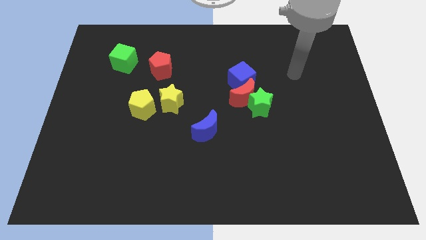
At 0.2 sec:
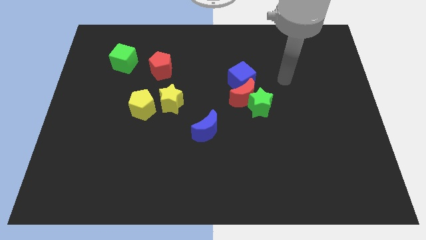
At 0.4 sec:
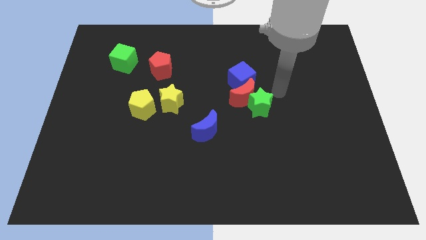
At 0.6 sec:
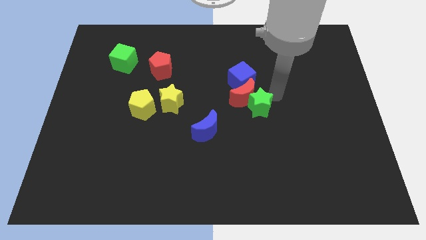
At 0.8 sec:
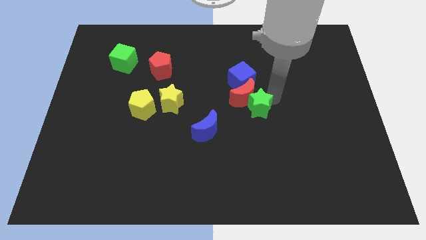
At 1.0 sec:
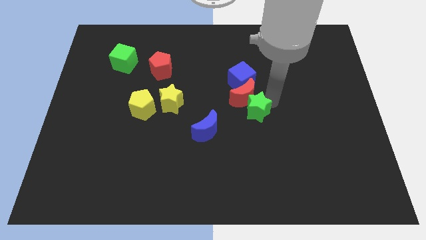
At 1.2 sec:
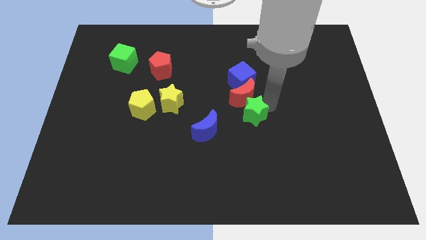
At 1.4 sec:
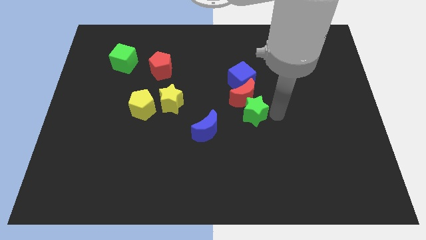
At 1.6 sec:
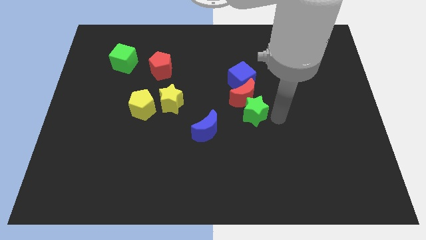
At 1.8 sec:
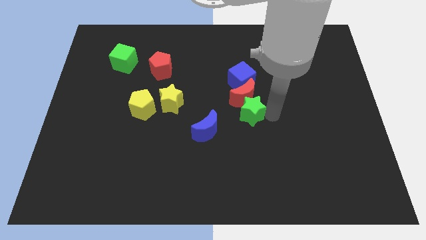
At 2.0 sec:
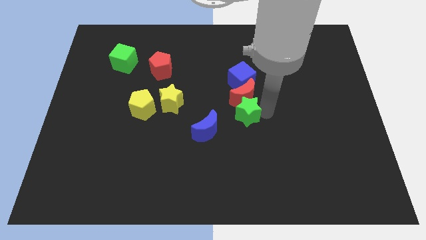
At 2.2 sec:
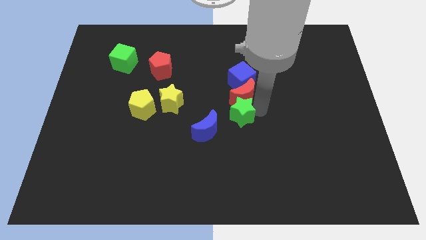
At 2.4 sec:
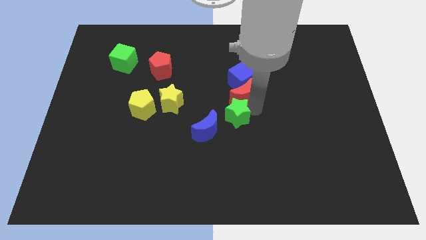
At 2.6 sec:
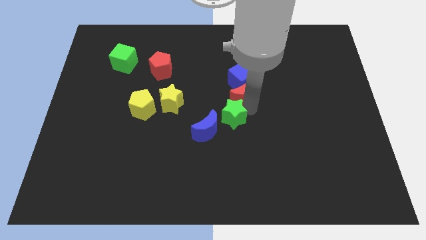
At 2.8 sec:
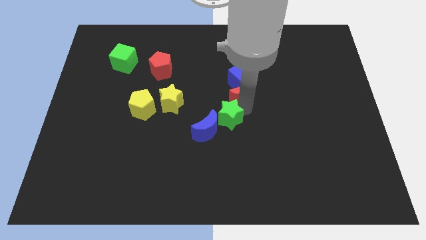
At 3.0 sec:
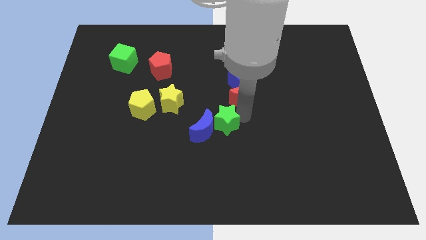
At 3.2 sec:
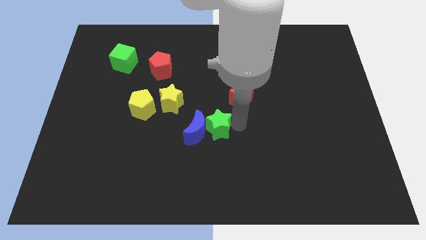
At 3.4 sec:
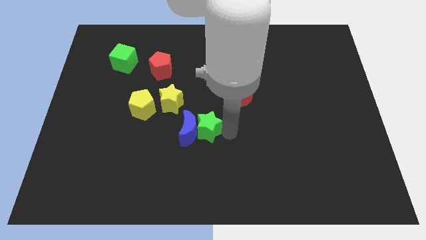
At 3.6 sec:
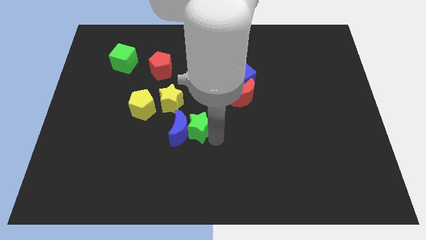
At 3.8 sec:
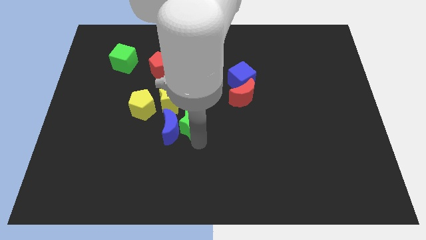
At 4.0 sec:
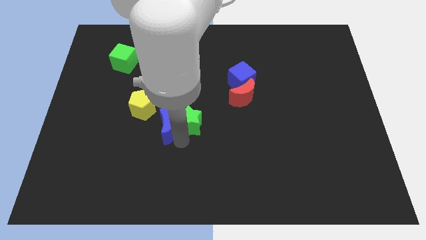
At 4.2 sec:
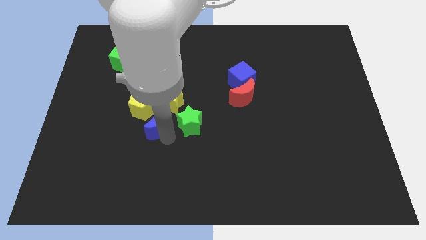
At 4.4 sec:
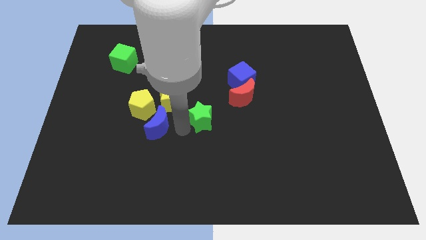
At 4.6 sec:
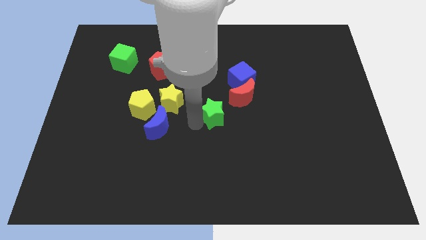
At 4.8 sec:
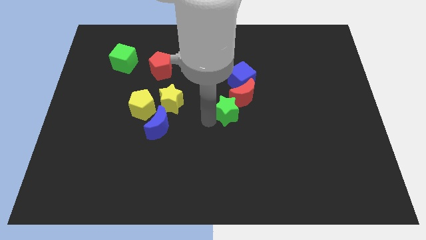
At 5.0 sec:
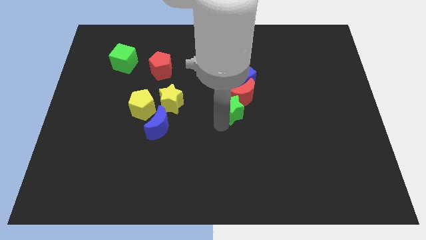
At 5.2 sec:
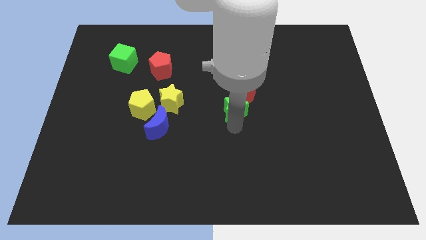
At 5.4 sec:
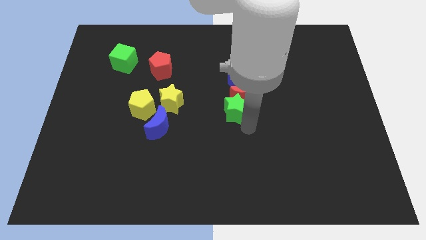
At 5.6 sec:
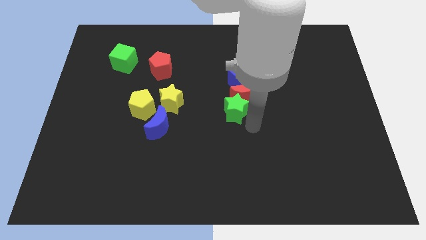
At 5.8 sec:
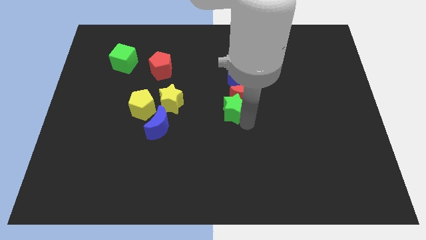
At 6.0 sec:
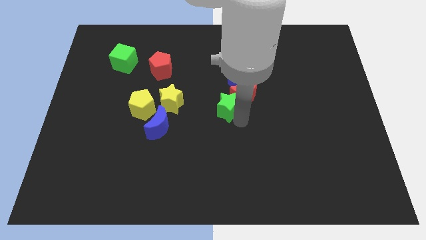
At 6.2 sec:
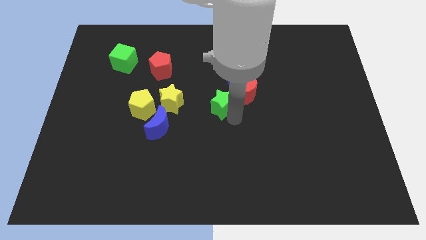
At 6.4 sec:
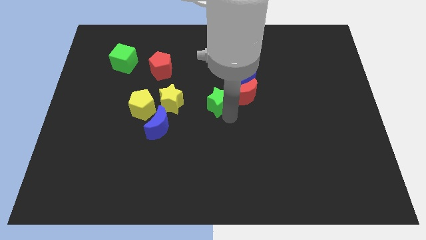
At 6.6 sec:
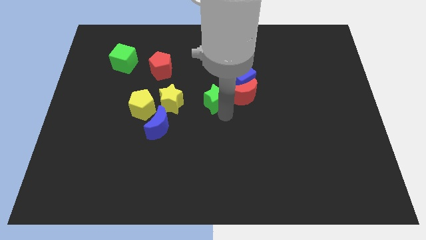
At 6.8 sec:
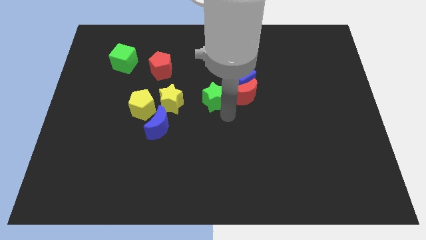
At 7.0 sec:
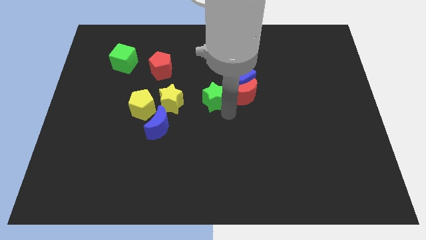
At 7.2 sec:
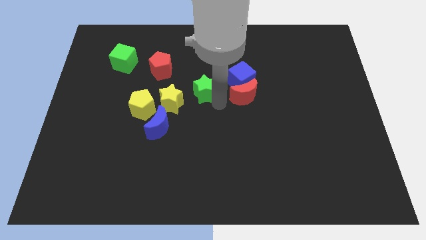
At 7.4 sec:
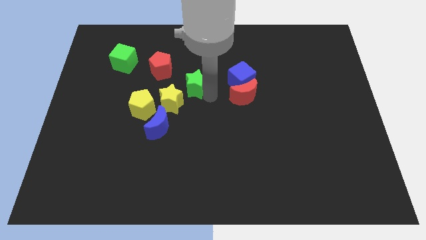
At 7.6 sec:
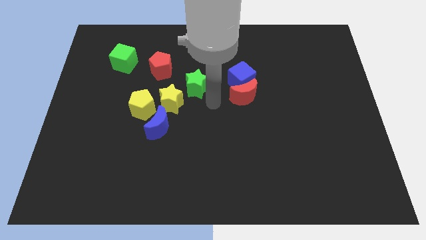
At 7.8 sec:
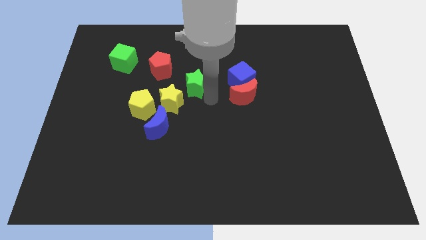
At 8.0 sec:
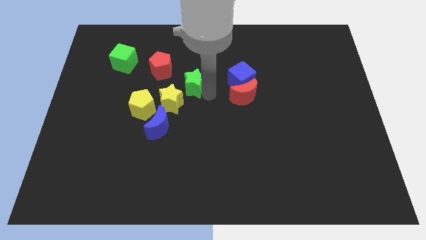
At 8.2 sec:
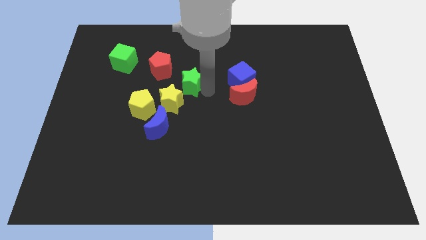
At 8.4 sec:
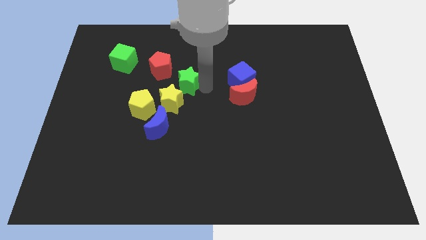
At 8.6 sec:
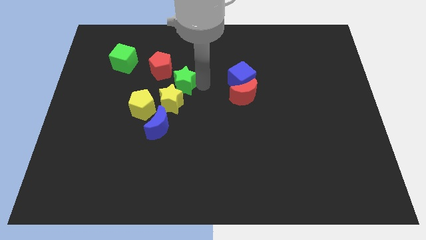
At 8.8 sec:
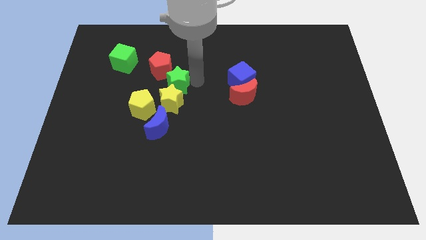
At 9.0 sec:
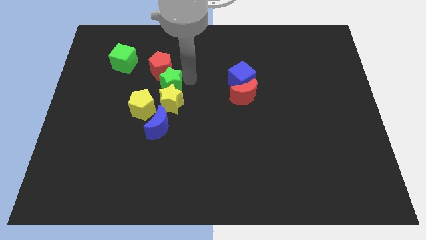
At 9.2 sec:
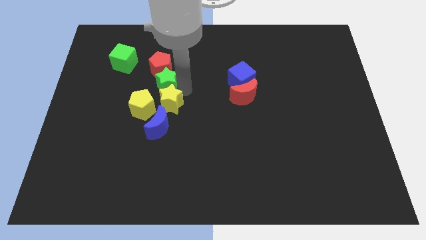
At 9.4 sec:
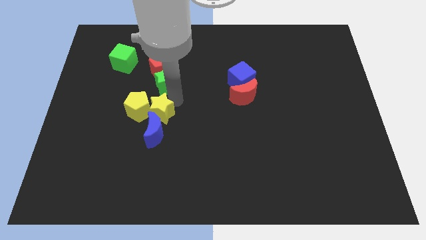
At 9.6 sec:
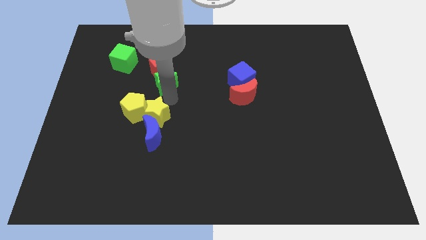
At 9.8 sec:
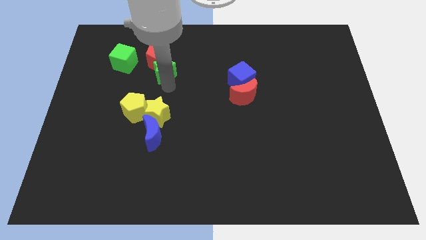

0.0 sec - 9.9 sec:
slide the green star right of the green cube

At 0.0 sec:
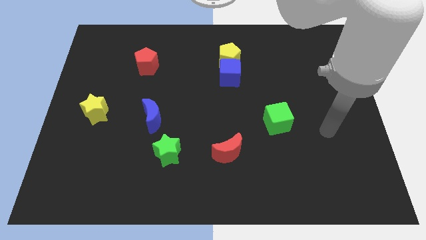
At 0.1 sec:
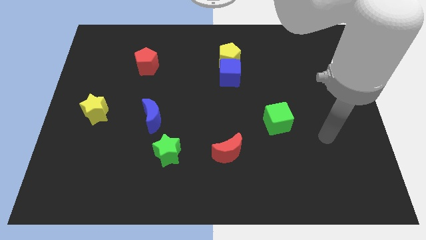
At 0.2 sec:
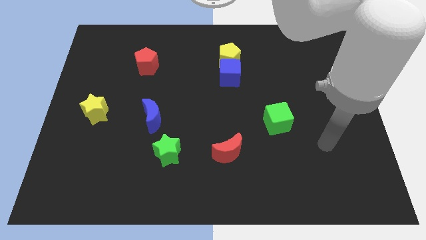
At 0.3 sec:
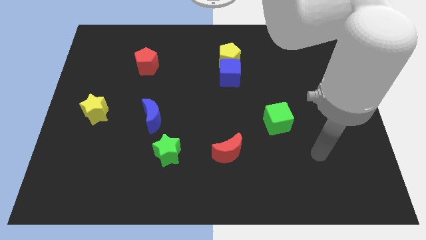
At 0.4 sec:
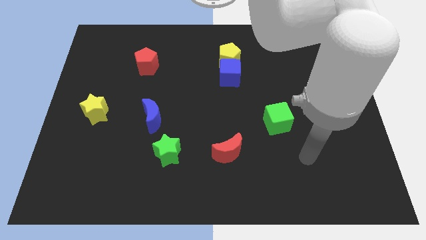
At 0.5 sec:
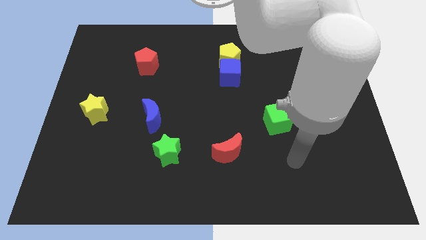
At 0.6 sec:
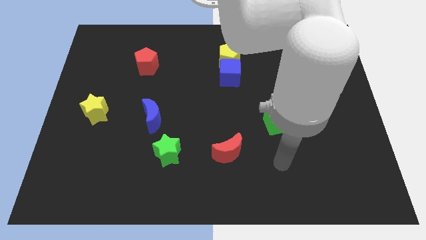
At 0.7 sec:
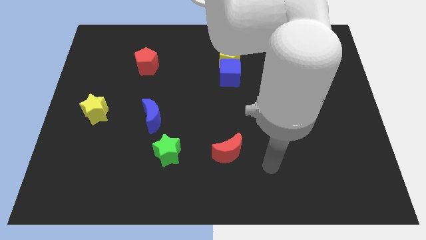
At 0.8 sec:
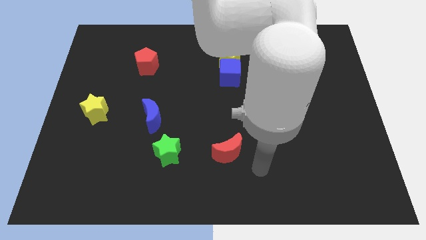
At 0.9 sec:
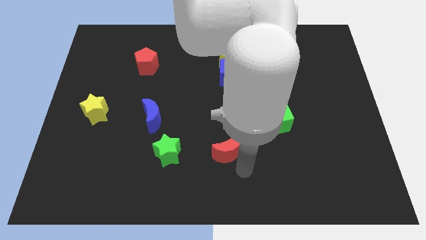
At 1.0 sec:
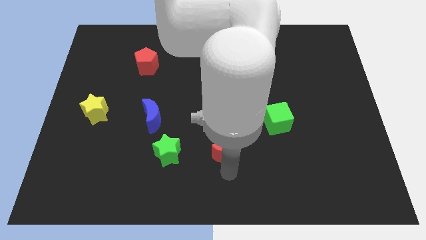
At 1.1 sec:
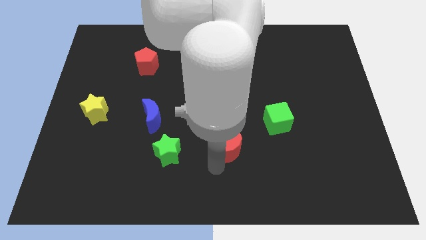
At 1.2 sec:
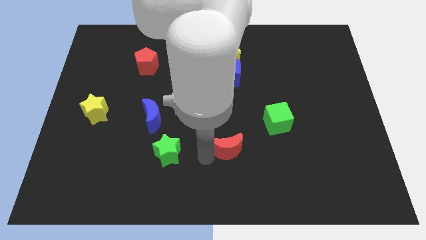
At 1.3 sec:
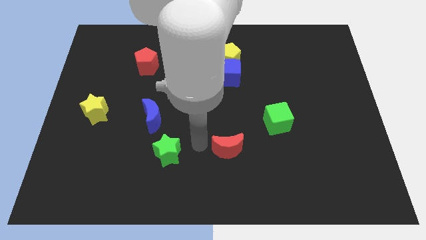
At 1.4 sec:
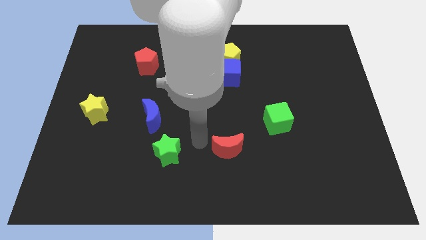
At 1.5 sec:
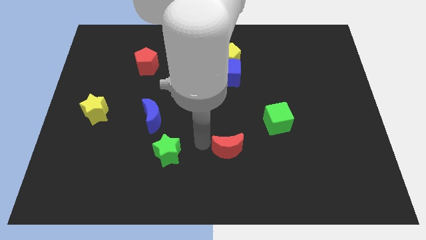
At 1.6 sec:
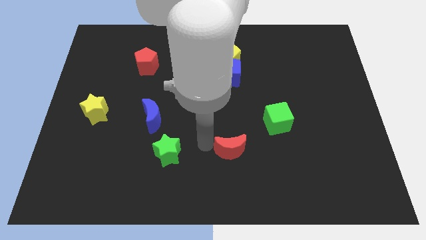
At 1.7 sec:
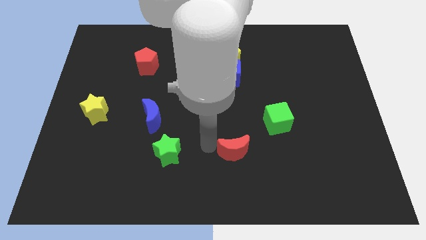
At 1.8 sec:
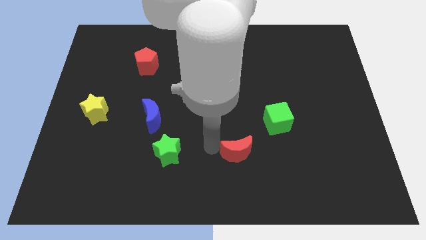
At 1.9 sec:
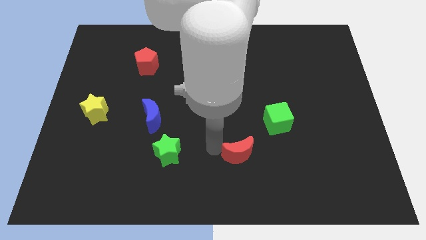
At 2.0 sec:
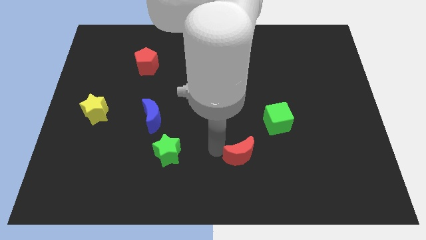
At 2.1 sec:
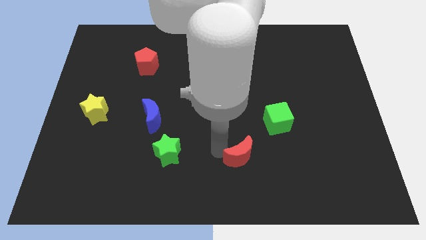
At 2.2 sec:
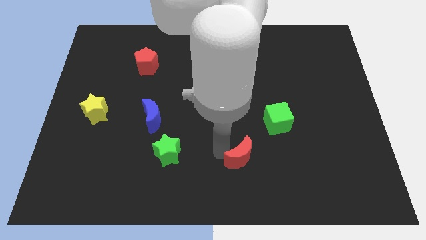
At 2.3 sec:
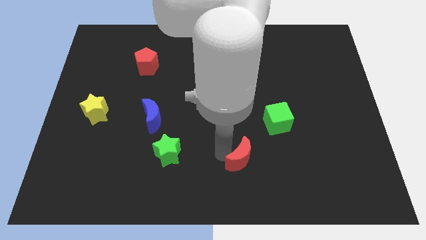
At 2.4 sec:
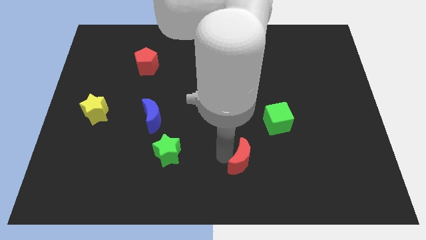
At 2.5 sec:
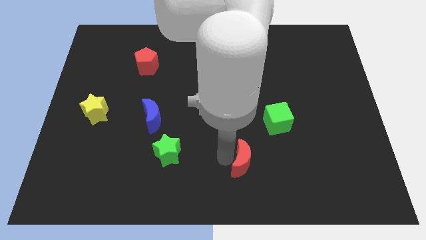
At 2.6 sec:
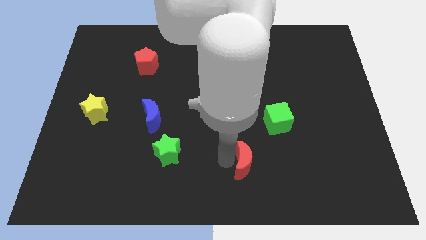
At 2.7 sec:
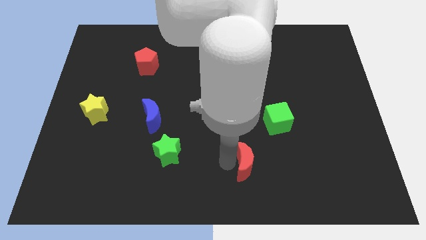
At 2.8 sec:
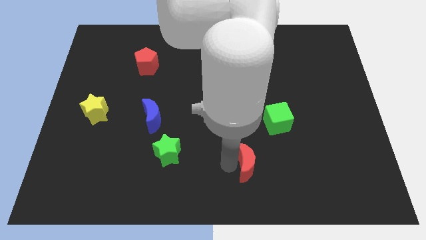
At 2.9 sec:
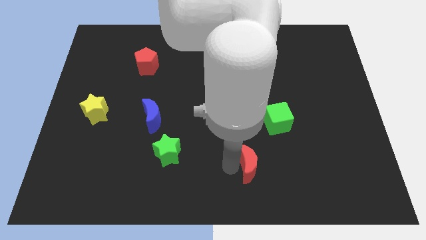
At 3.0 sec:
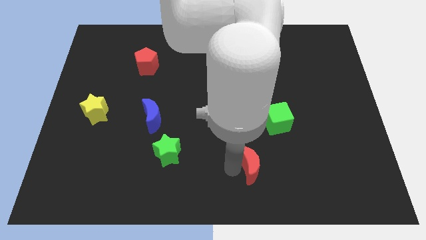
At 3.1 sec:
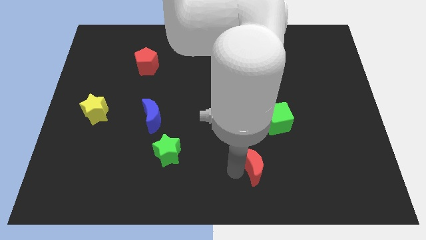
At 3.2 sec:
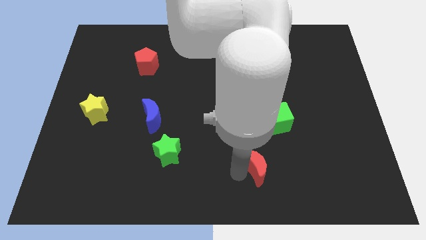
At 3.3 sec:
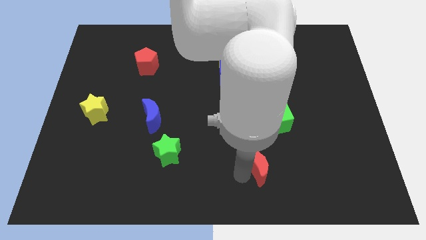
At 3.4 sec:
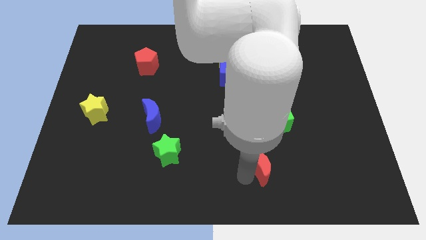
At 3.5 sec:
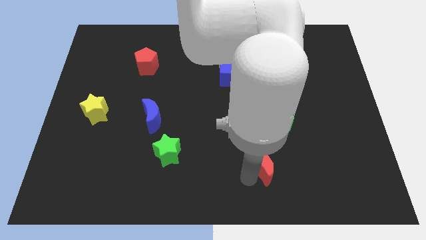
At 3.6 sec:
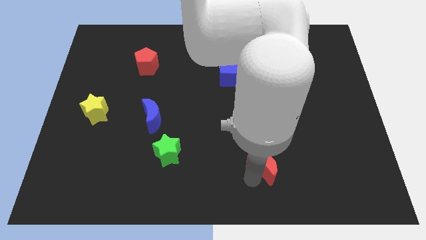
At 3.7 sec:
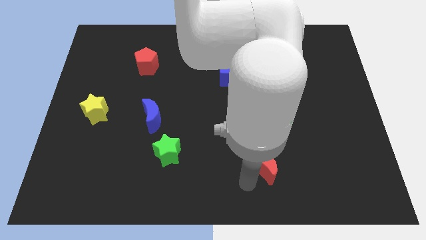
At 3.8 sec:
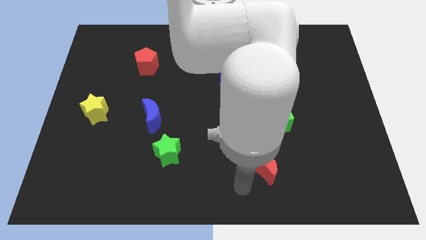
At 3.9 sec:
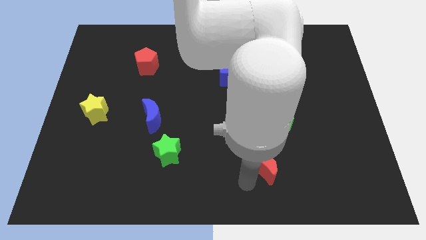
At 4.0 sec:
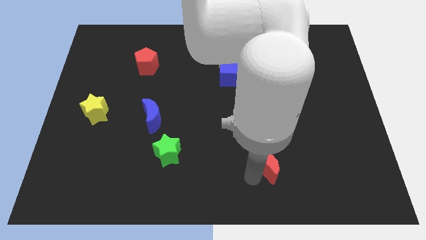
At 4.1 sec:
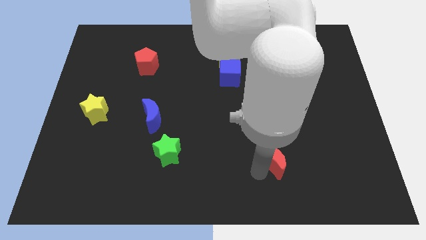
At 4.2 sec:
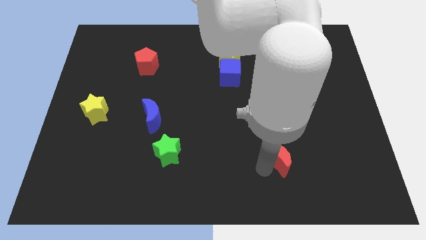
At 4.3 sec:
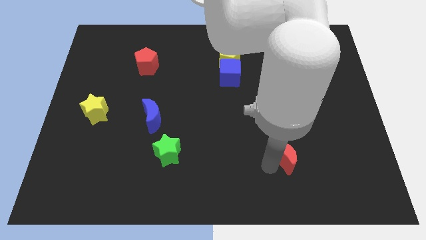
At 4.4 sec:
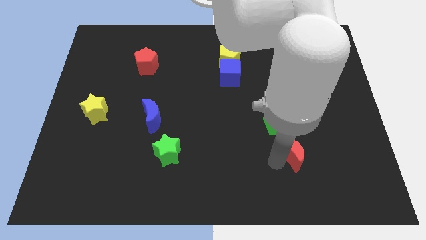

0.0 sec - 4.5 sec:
put the red moon to the bottom right side of the green cube
